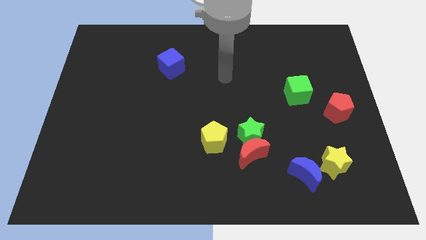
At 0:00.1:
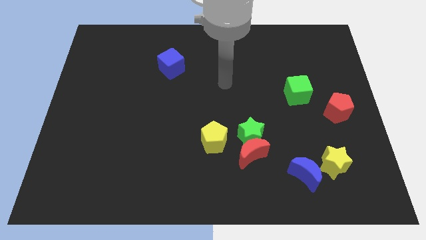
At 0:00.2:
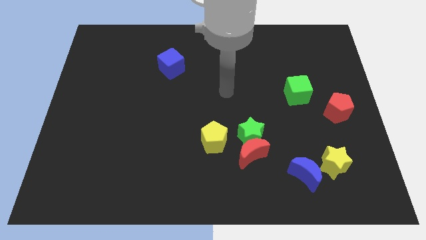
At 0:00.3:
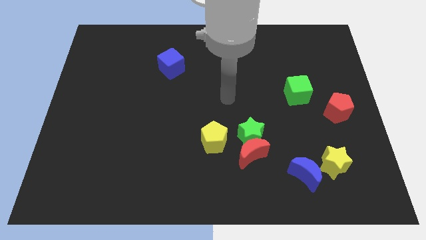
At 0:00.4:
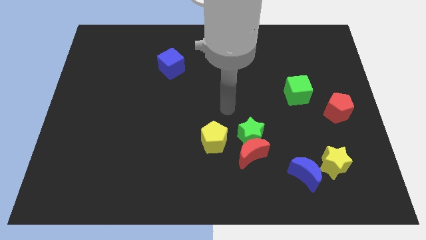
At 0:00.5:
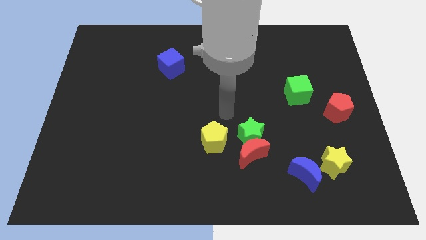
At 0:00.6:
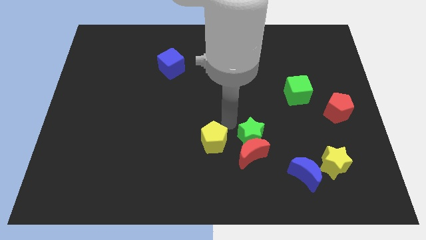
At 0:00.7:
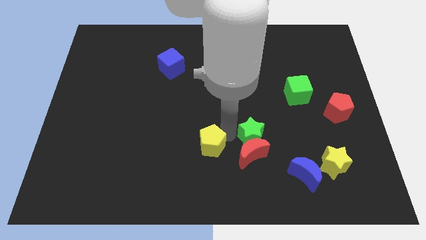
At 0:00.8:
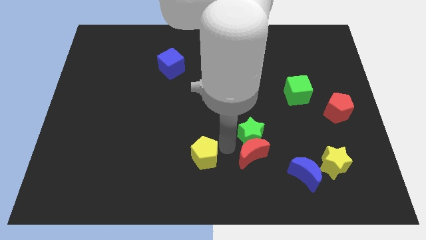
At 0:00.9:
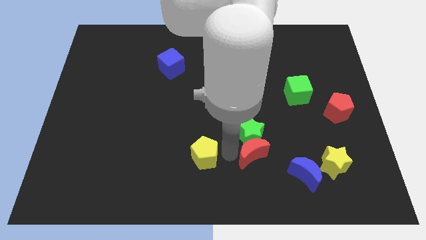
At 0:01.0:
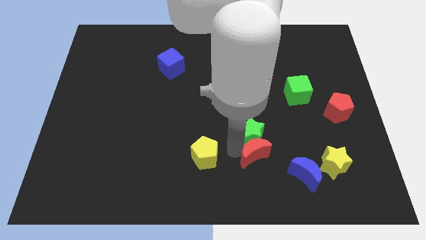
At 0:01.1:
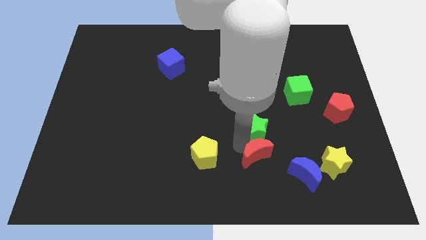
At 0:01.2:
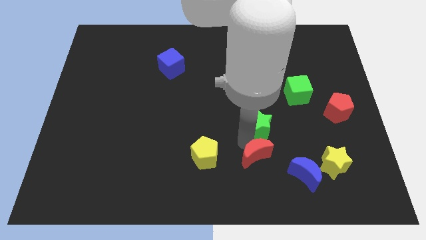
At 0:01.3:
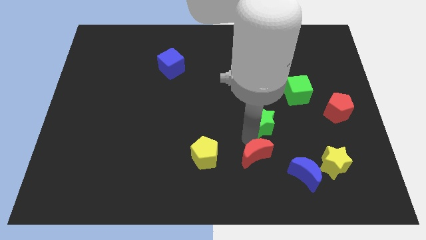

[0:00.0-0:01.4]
move the green star away from the red moon and yellow pentagon

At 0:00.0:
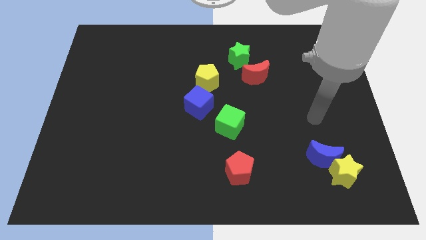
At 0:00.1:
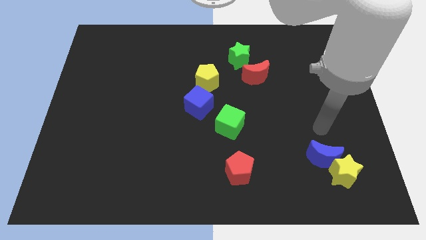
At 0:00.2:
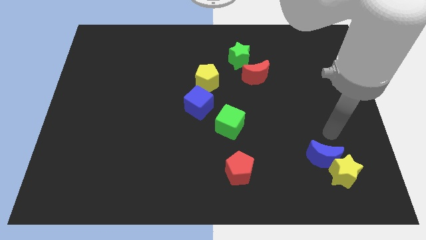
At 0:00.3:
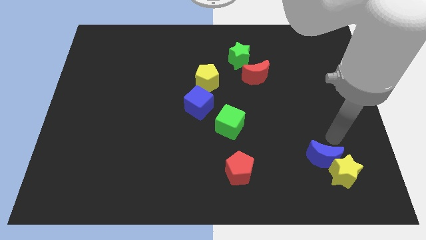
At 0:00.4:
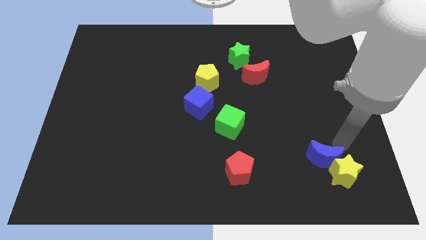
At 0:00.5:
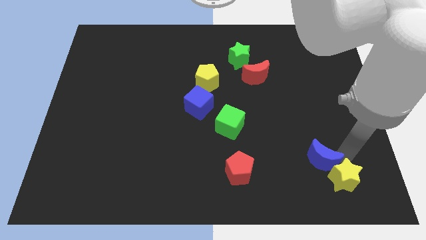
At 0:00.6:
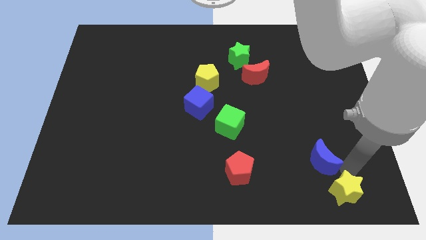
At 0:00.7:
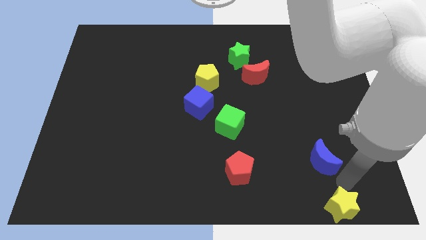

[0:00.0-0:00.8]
move the blue moon away from the yellow star

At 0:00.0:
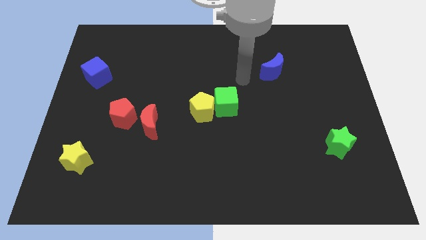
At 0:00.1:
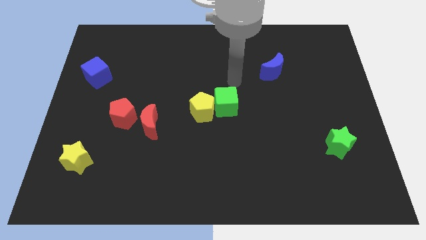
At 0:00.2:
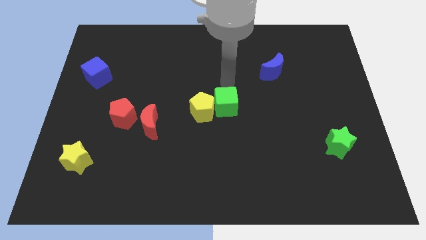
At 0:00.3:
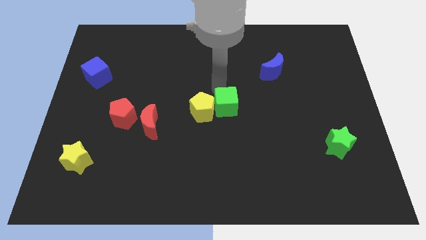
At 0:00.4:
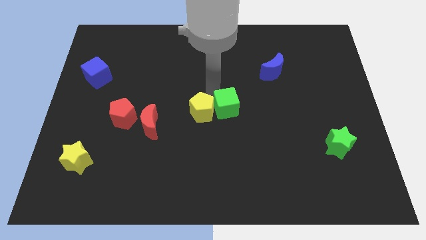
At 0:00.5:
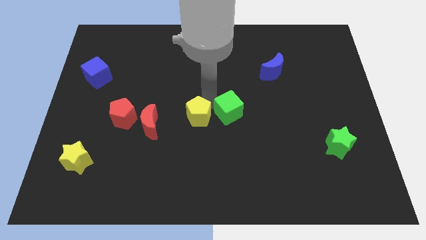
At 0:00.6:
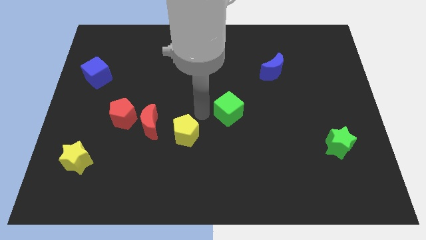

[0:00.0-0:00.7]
separate the green cube from the yellow pentagon

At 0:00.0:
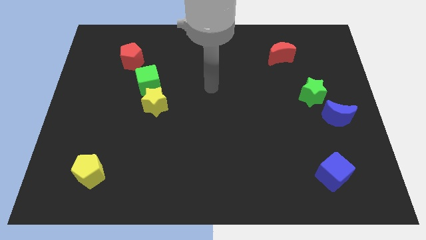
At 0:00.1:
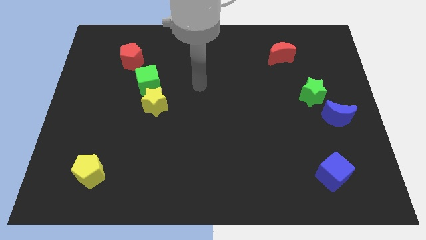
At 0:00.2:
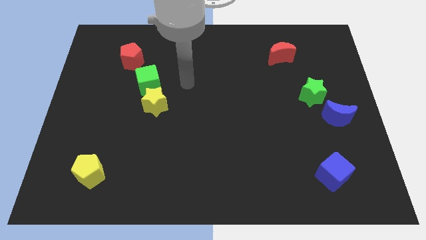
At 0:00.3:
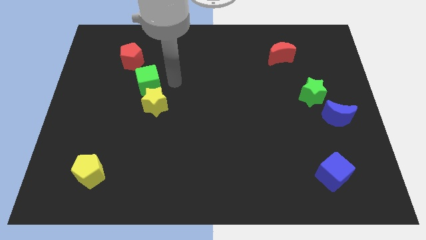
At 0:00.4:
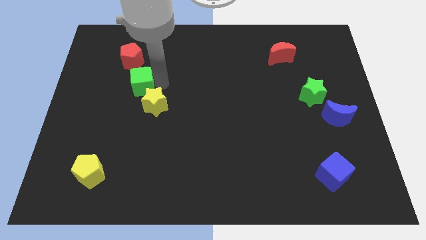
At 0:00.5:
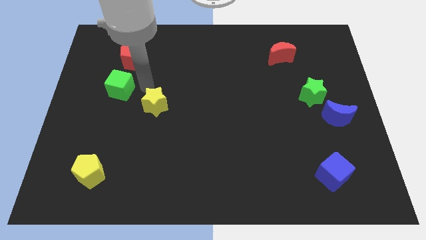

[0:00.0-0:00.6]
pull the yellow star apart from the green cube

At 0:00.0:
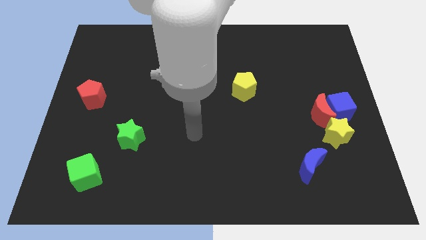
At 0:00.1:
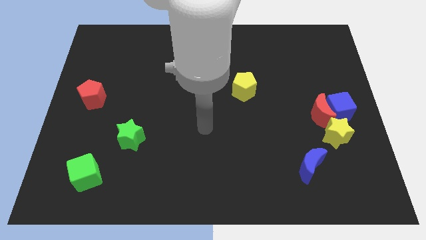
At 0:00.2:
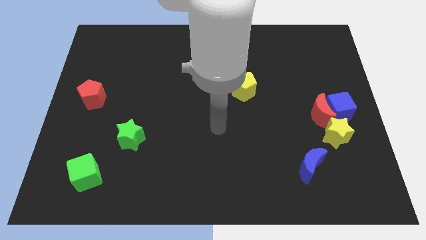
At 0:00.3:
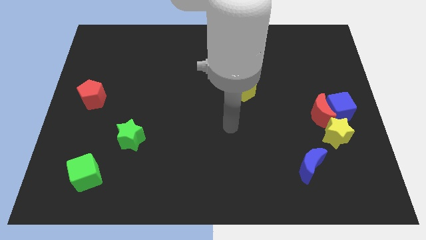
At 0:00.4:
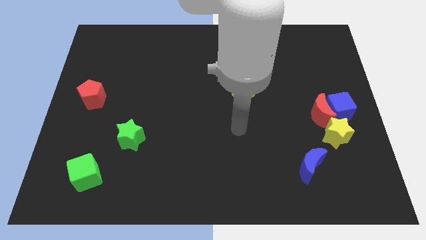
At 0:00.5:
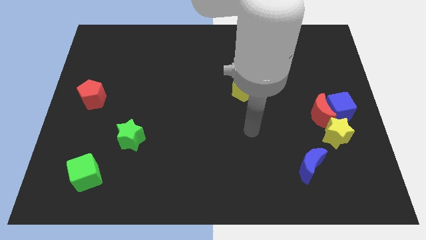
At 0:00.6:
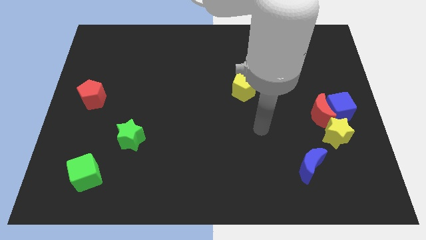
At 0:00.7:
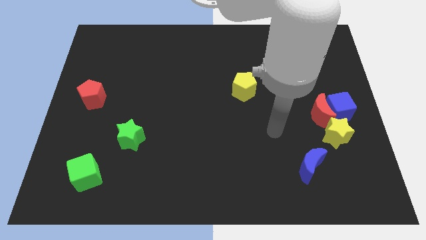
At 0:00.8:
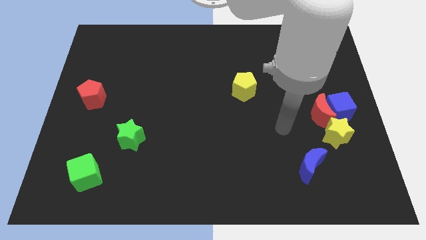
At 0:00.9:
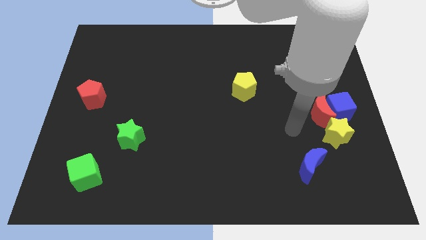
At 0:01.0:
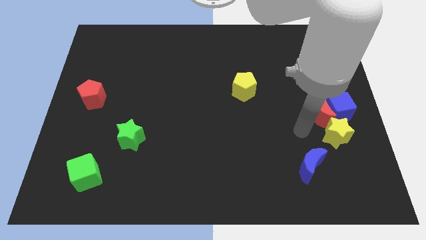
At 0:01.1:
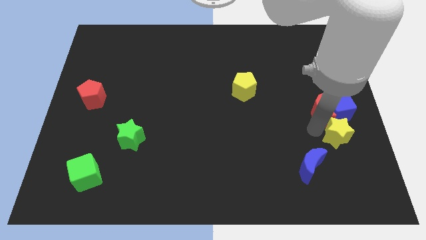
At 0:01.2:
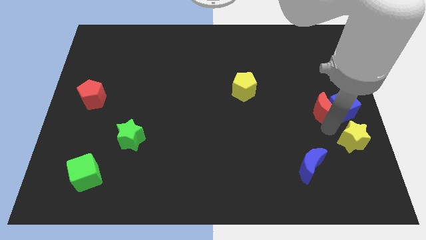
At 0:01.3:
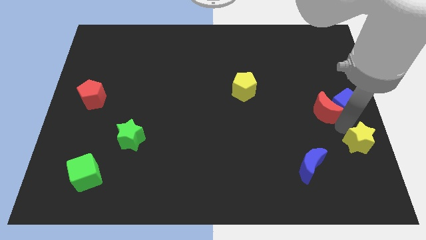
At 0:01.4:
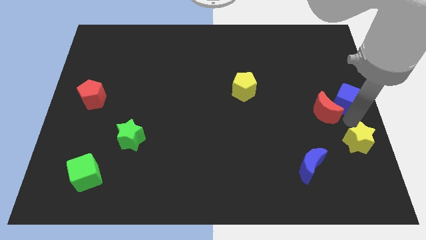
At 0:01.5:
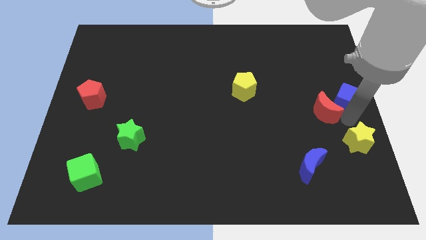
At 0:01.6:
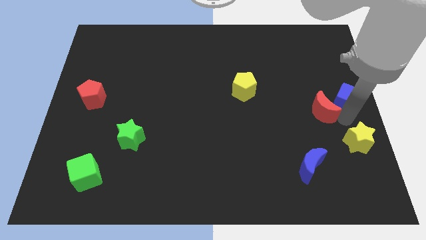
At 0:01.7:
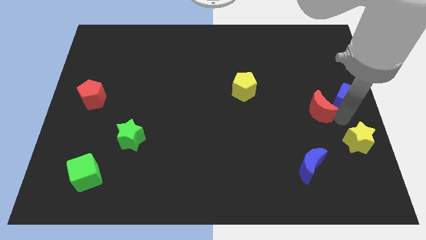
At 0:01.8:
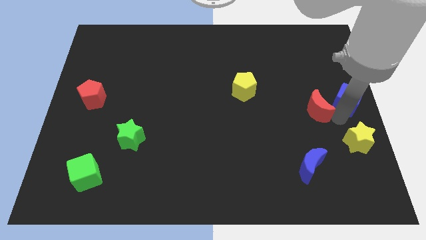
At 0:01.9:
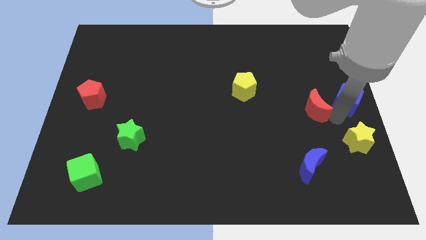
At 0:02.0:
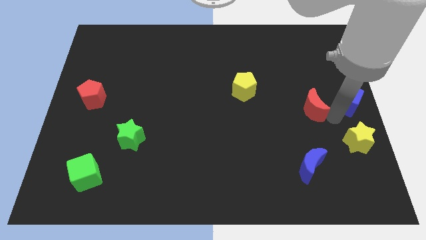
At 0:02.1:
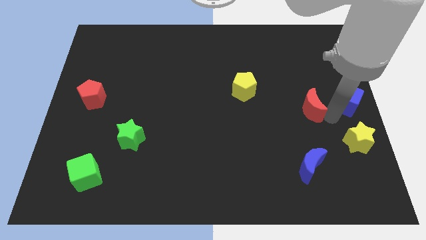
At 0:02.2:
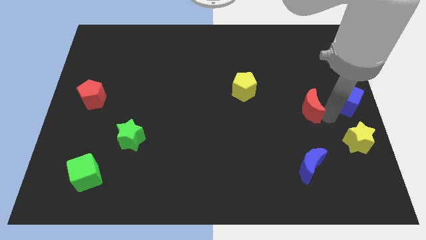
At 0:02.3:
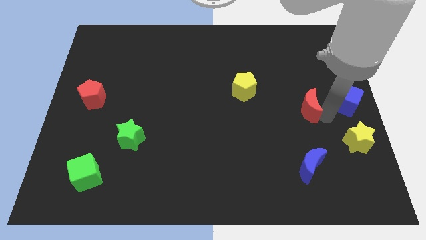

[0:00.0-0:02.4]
separate the red moon from the blue cube and yellow star

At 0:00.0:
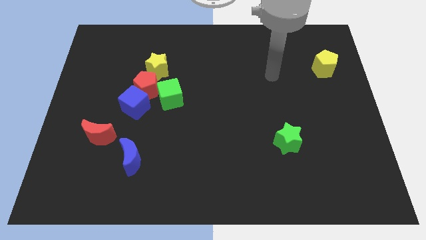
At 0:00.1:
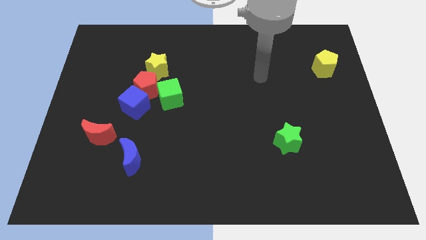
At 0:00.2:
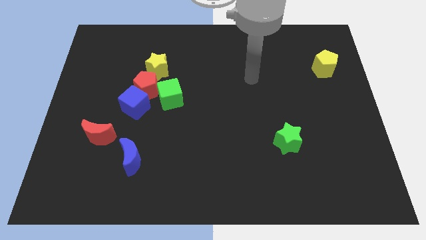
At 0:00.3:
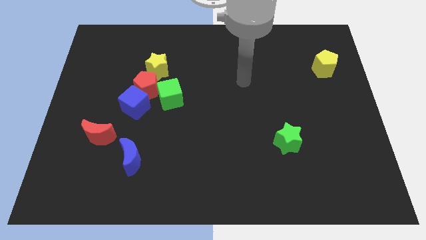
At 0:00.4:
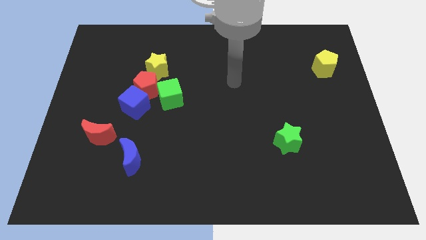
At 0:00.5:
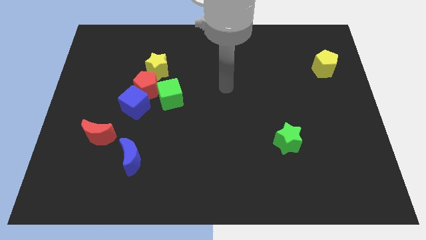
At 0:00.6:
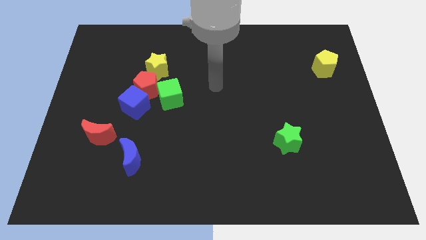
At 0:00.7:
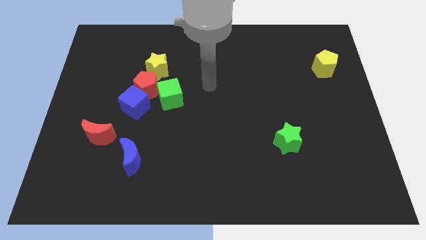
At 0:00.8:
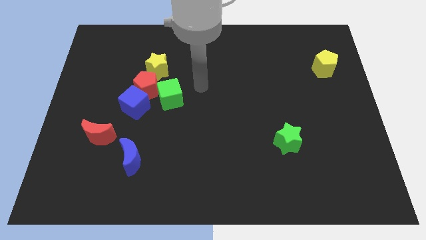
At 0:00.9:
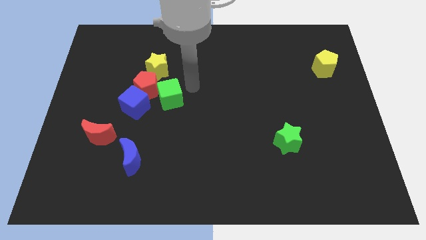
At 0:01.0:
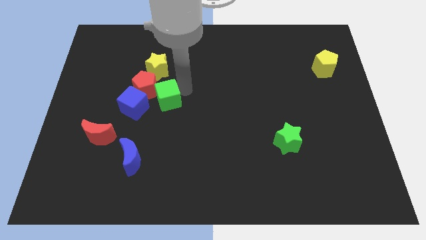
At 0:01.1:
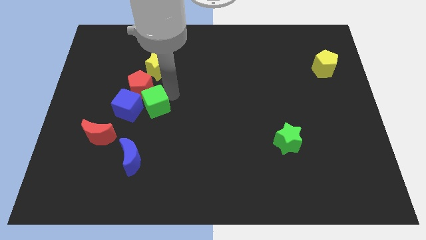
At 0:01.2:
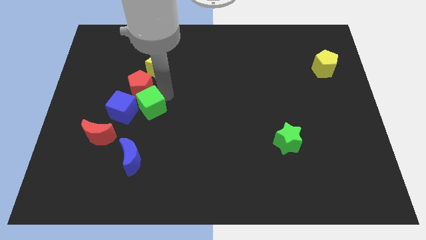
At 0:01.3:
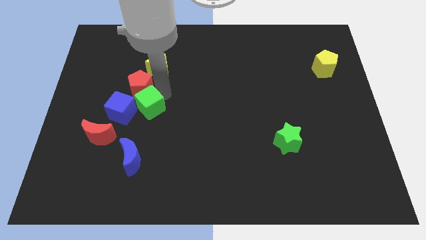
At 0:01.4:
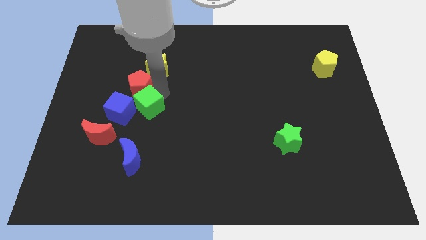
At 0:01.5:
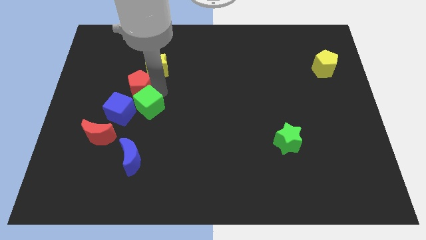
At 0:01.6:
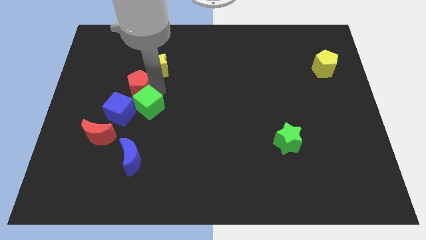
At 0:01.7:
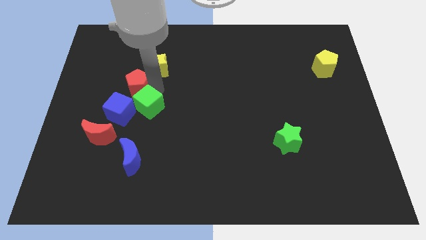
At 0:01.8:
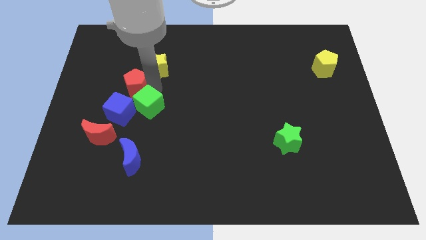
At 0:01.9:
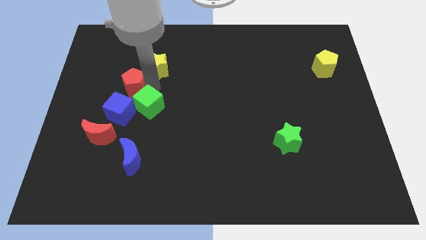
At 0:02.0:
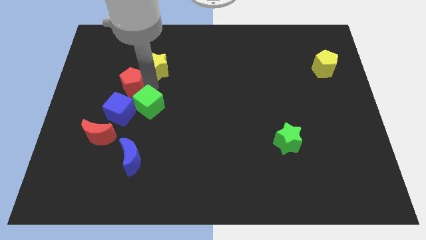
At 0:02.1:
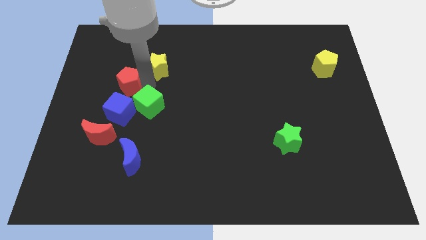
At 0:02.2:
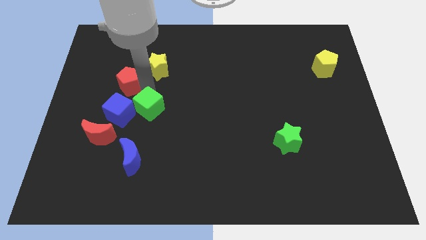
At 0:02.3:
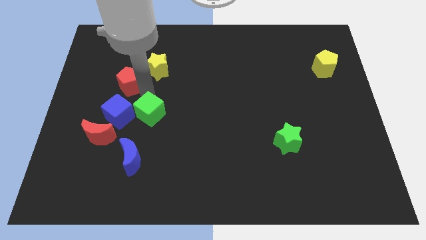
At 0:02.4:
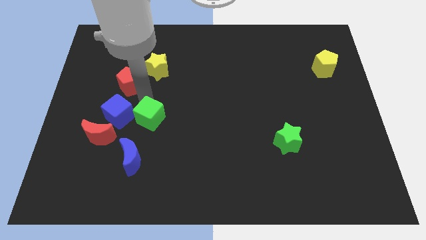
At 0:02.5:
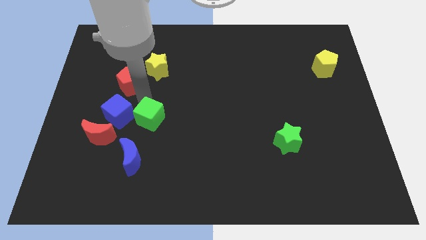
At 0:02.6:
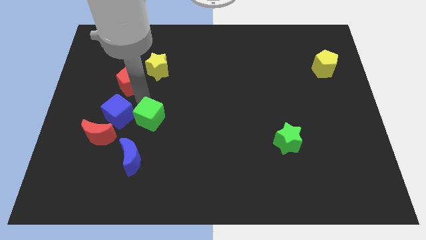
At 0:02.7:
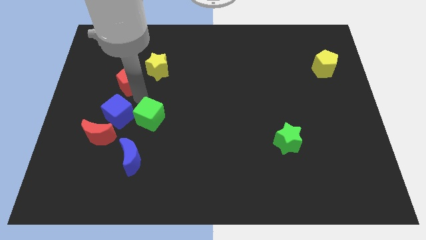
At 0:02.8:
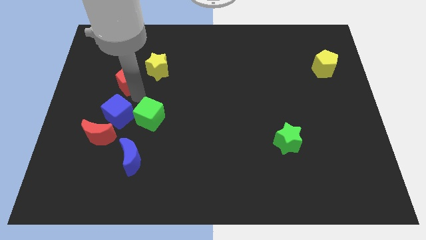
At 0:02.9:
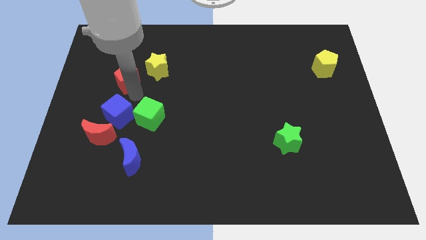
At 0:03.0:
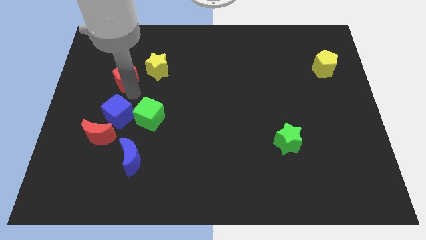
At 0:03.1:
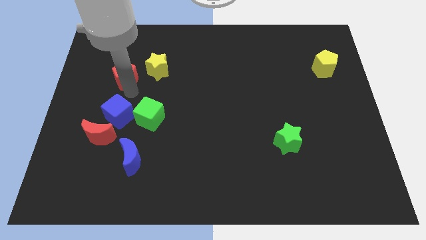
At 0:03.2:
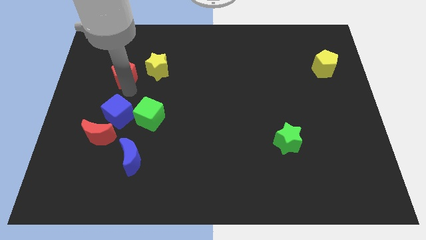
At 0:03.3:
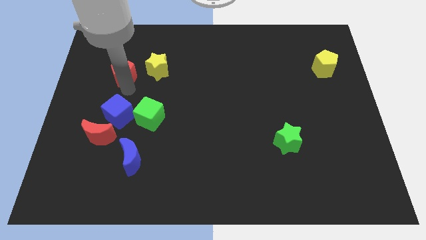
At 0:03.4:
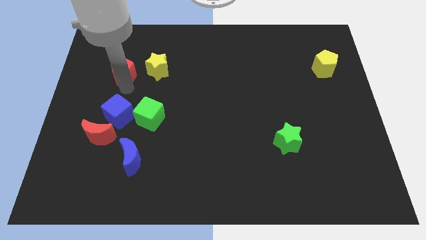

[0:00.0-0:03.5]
move the red pentagon away from the blue cube, green cube, and yellow star

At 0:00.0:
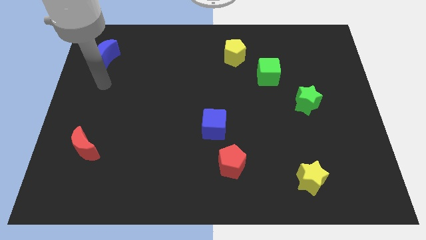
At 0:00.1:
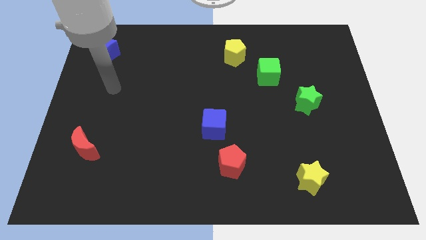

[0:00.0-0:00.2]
separate the red pentagon from the blue cube
